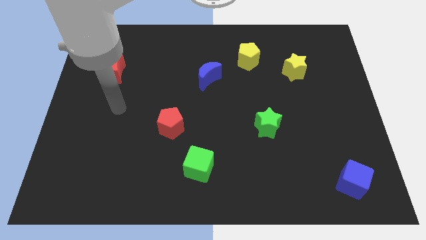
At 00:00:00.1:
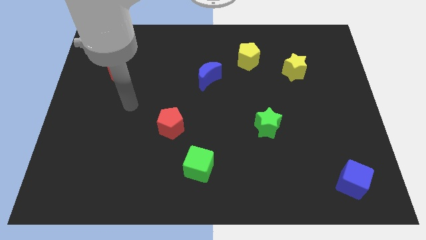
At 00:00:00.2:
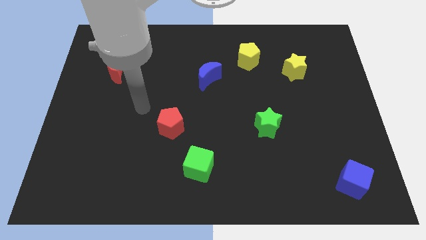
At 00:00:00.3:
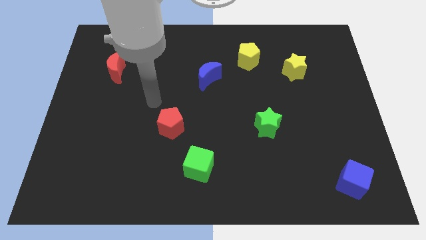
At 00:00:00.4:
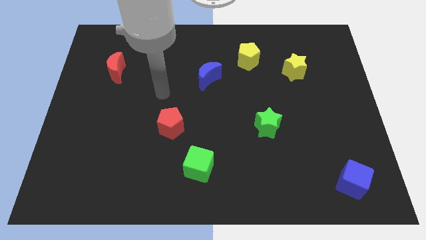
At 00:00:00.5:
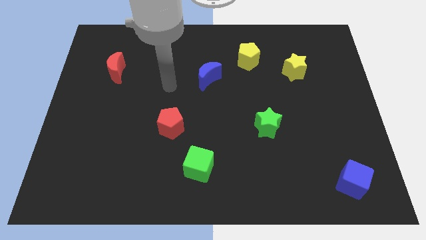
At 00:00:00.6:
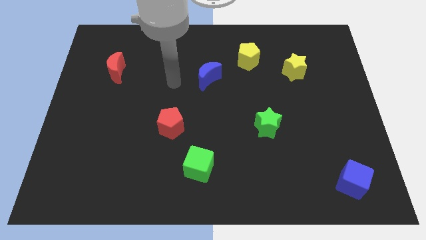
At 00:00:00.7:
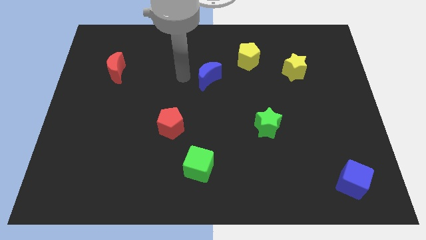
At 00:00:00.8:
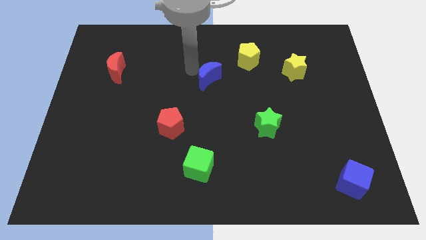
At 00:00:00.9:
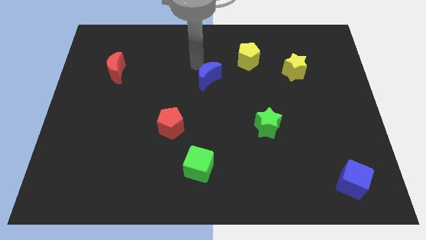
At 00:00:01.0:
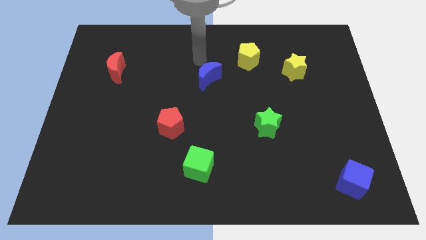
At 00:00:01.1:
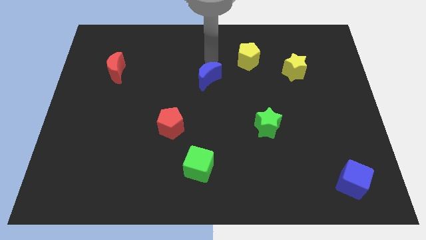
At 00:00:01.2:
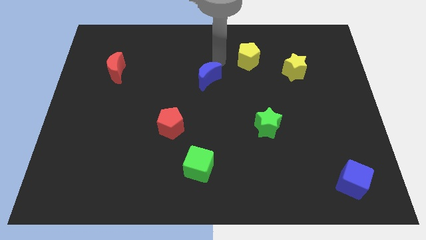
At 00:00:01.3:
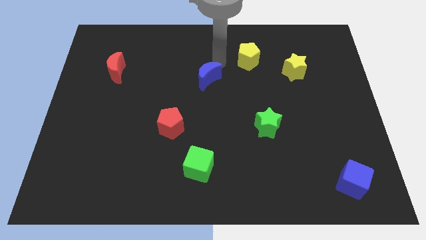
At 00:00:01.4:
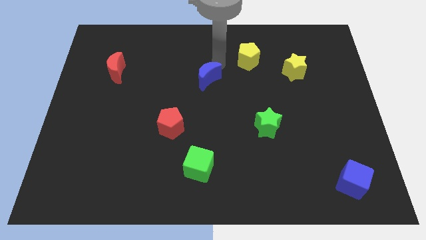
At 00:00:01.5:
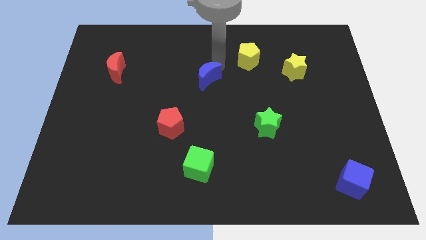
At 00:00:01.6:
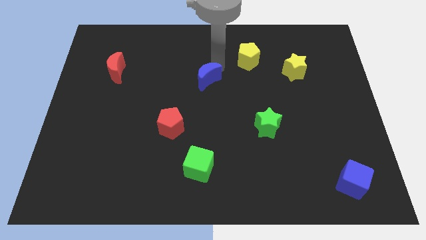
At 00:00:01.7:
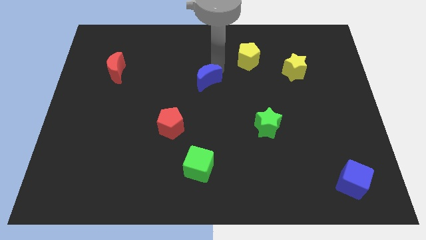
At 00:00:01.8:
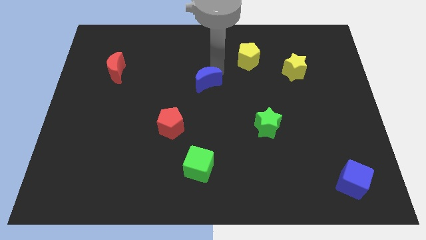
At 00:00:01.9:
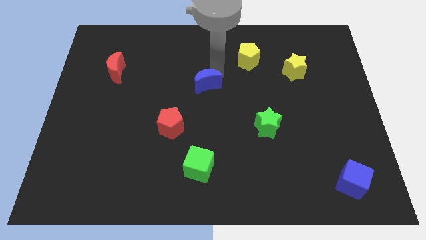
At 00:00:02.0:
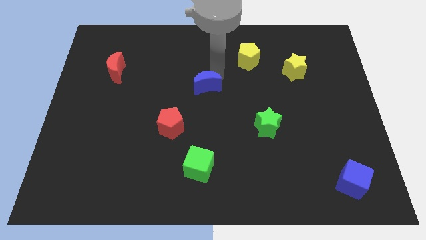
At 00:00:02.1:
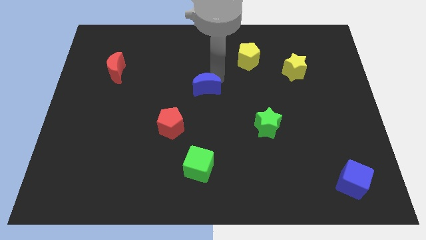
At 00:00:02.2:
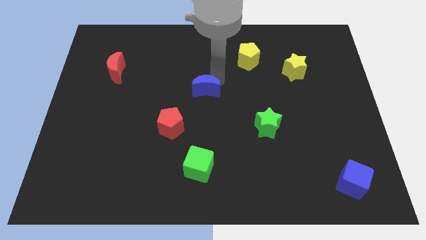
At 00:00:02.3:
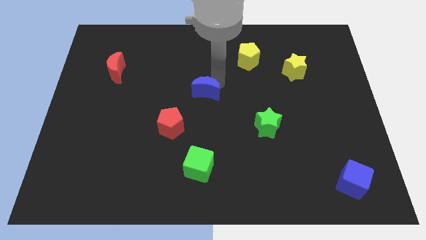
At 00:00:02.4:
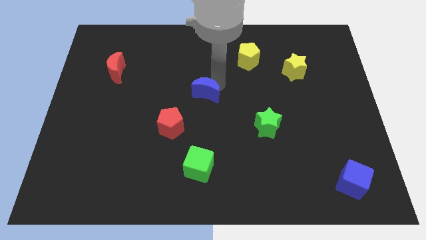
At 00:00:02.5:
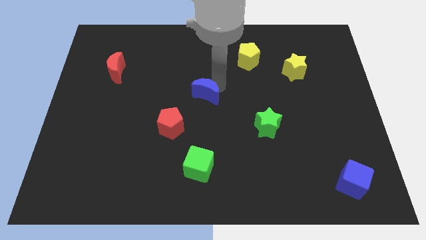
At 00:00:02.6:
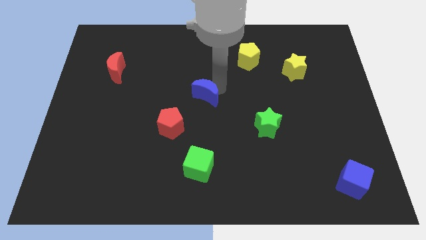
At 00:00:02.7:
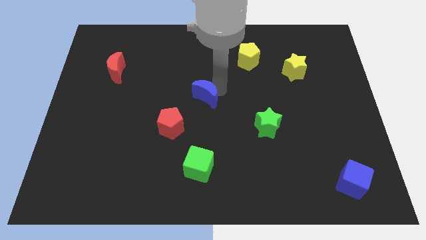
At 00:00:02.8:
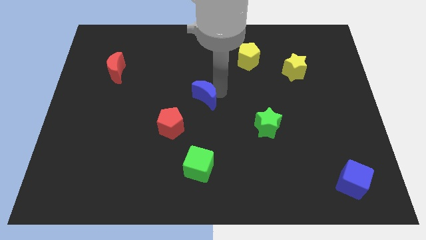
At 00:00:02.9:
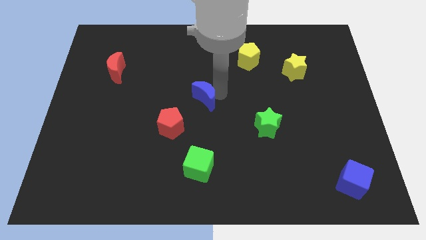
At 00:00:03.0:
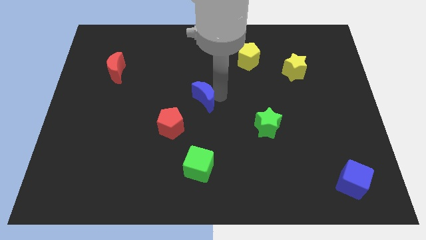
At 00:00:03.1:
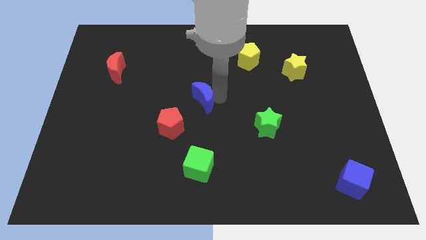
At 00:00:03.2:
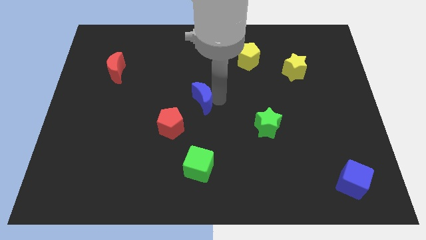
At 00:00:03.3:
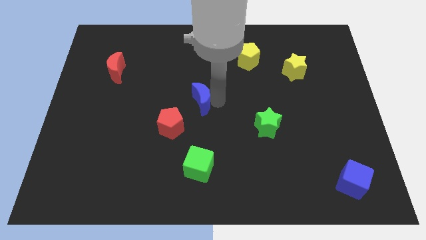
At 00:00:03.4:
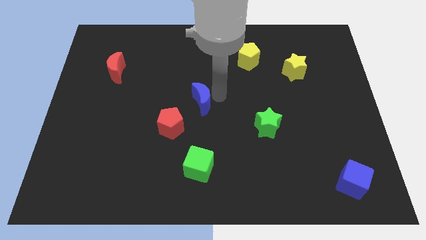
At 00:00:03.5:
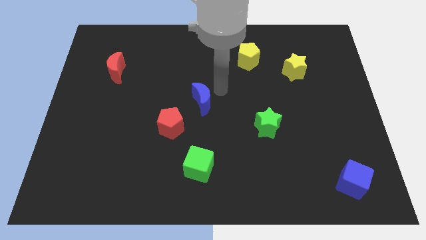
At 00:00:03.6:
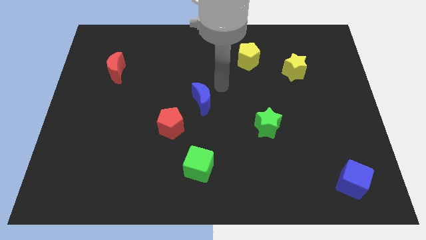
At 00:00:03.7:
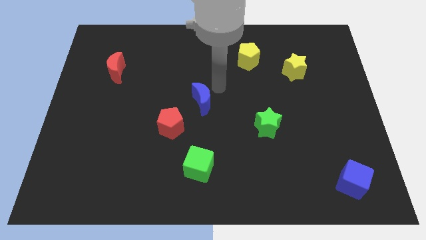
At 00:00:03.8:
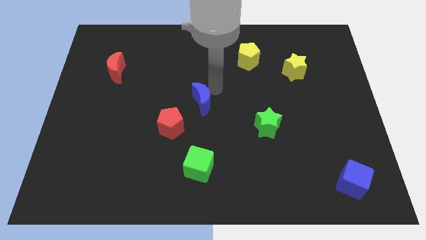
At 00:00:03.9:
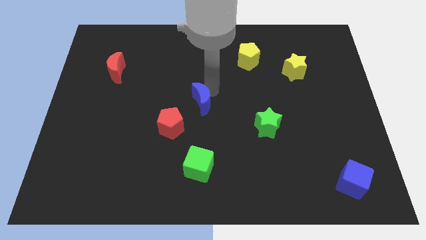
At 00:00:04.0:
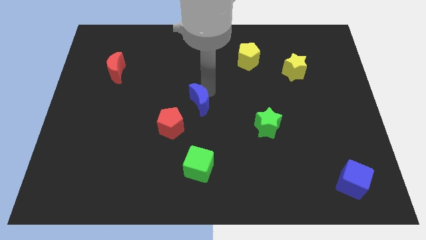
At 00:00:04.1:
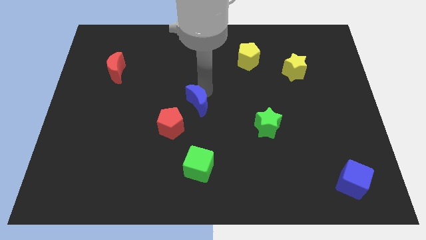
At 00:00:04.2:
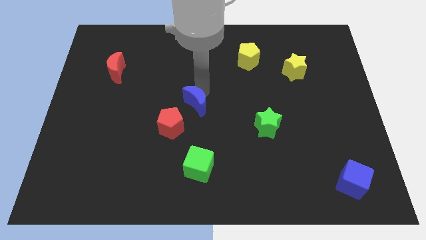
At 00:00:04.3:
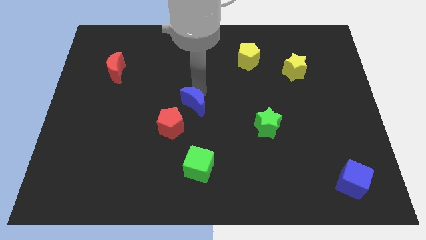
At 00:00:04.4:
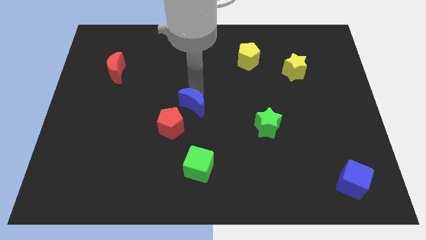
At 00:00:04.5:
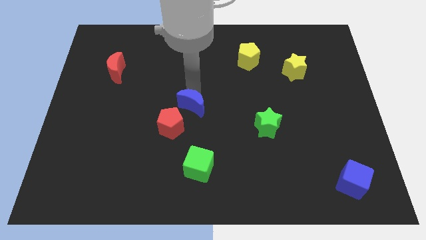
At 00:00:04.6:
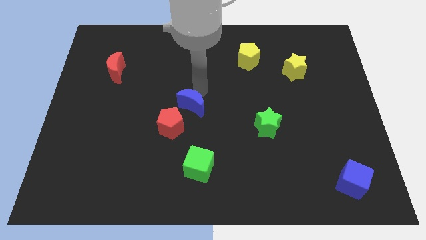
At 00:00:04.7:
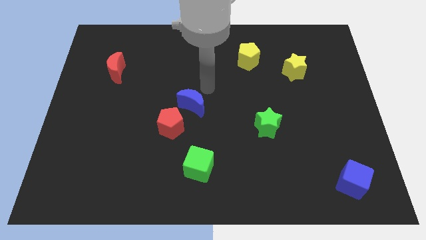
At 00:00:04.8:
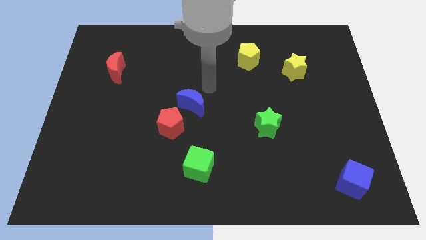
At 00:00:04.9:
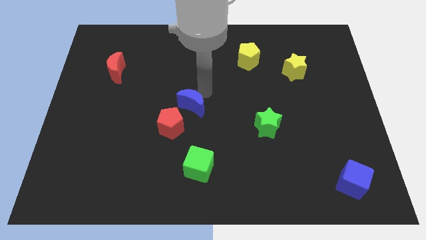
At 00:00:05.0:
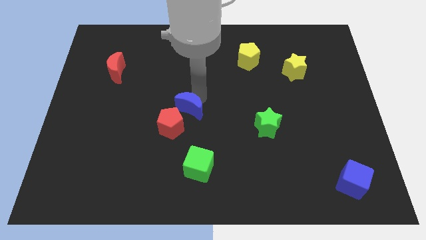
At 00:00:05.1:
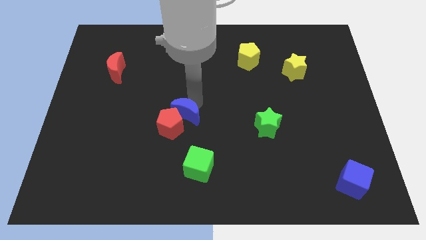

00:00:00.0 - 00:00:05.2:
push the blue moon next to the red pentagon

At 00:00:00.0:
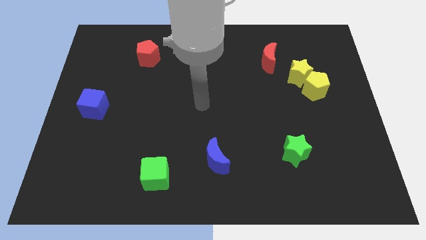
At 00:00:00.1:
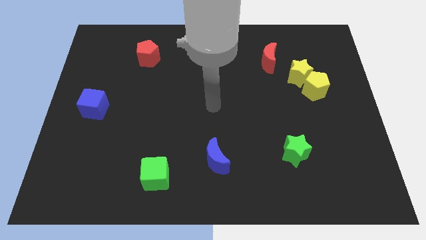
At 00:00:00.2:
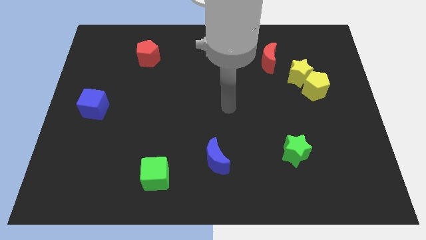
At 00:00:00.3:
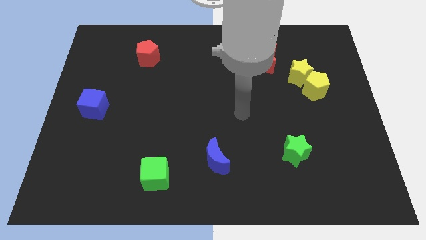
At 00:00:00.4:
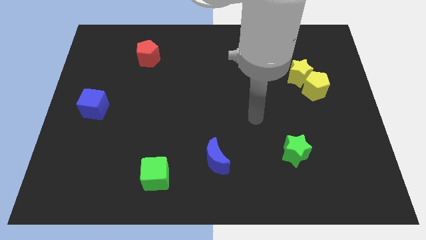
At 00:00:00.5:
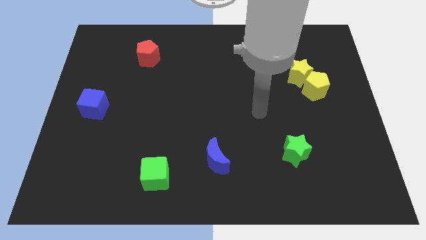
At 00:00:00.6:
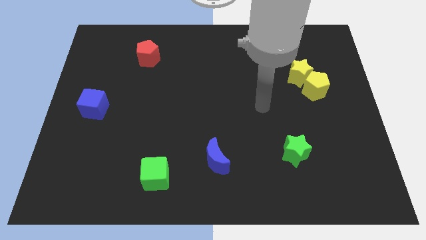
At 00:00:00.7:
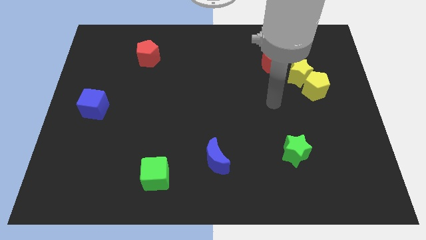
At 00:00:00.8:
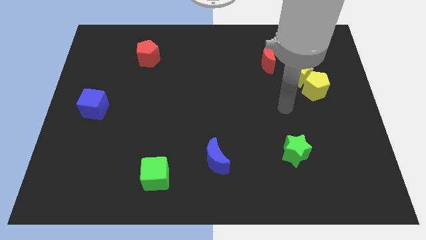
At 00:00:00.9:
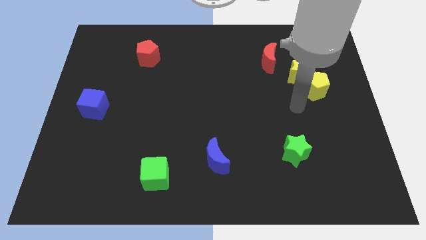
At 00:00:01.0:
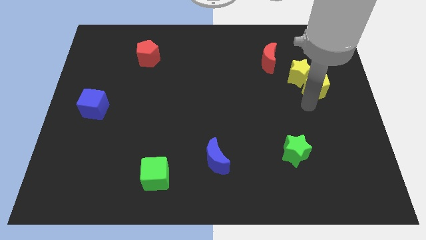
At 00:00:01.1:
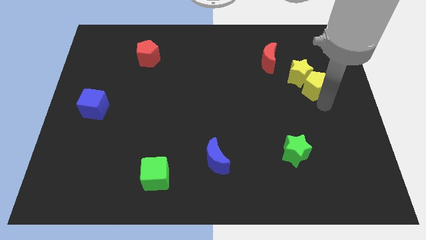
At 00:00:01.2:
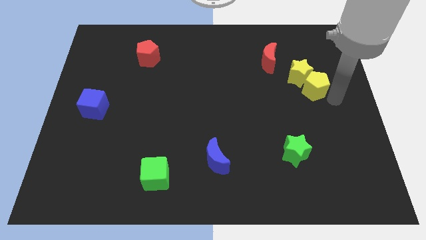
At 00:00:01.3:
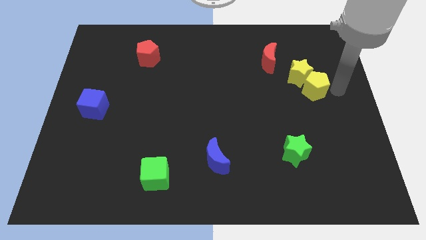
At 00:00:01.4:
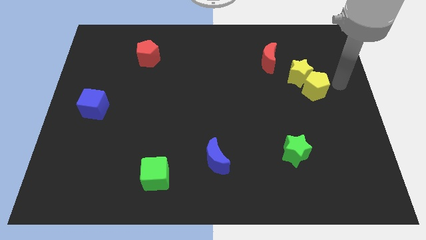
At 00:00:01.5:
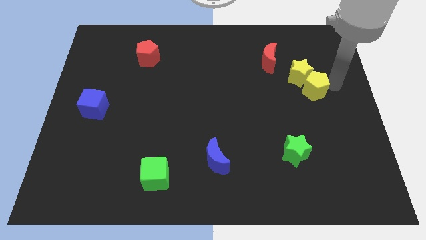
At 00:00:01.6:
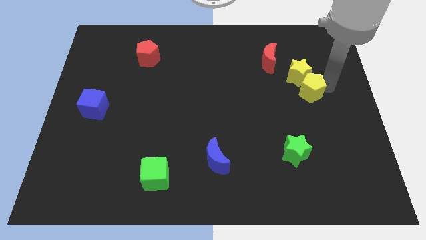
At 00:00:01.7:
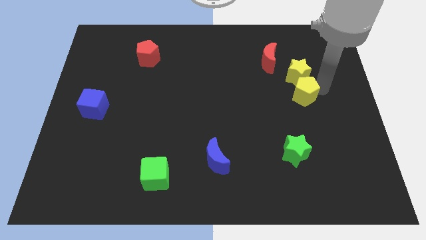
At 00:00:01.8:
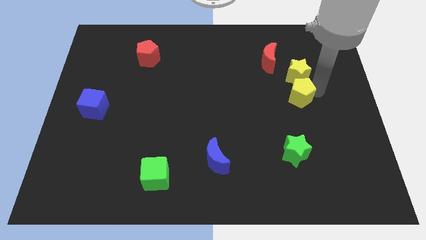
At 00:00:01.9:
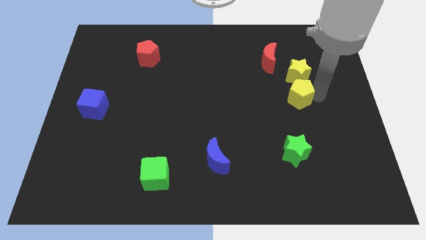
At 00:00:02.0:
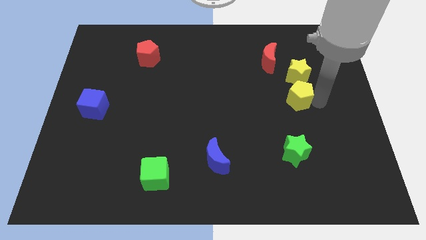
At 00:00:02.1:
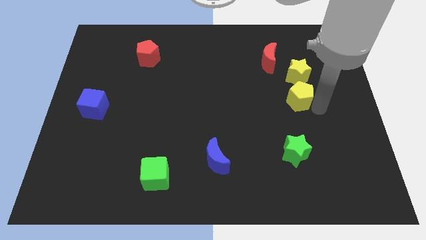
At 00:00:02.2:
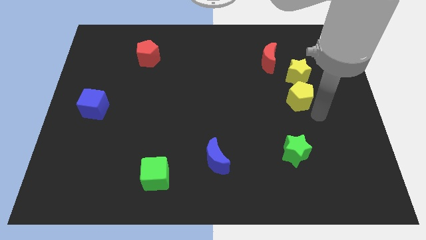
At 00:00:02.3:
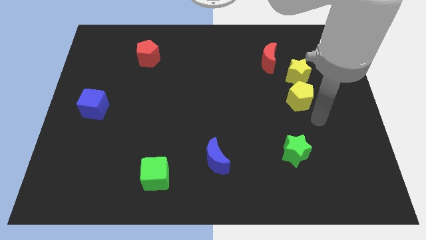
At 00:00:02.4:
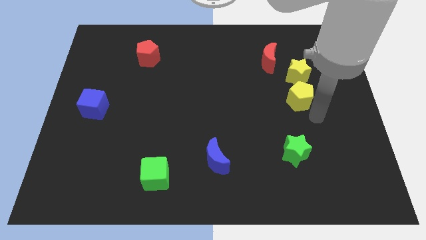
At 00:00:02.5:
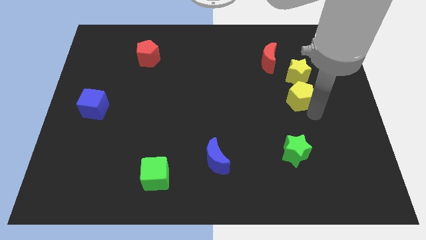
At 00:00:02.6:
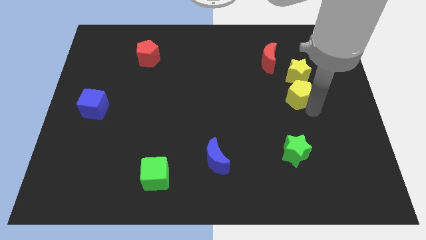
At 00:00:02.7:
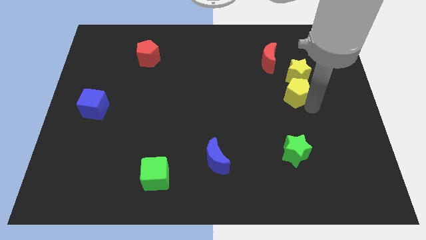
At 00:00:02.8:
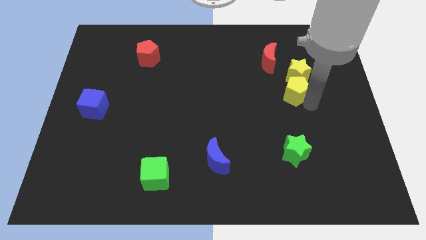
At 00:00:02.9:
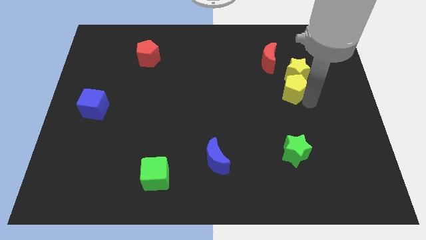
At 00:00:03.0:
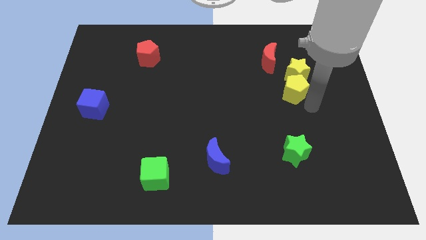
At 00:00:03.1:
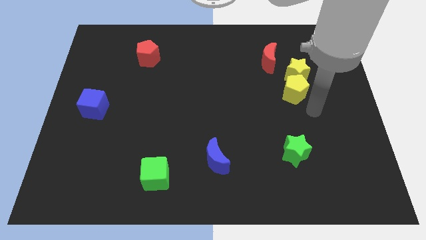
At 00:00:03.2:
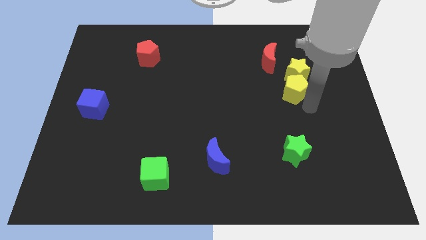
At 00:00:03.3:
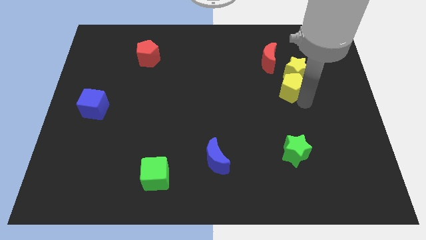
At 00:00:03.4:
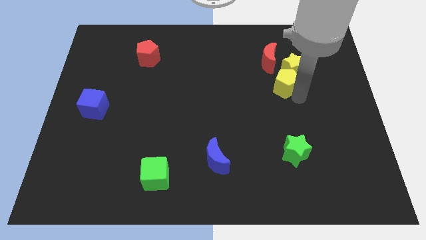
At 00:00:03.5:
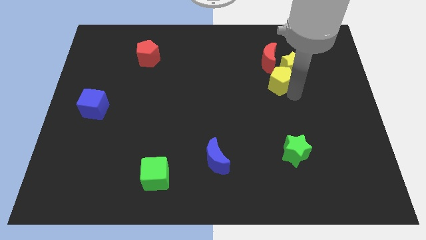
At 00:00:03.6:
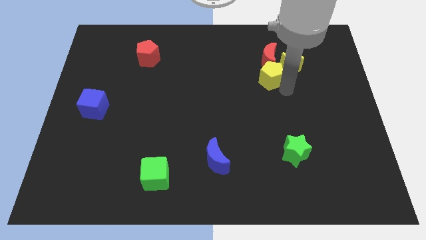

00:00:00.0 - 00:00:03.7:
slide the yellow pentagon close to the red moon
